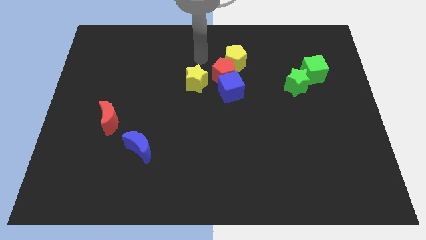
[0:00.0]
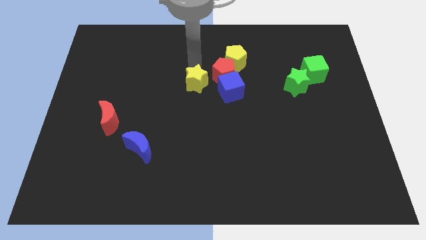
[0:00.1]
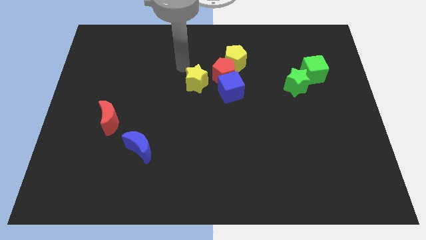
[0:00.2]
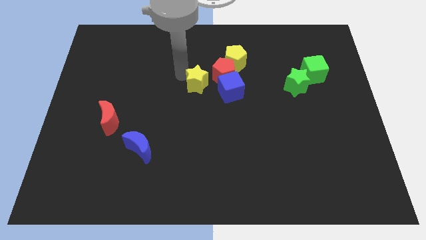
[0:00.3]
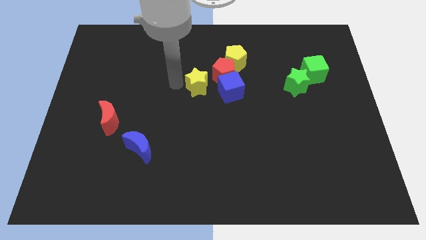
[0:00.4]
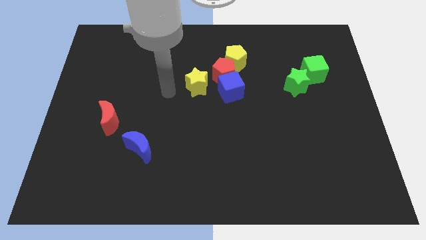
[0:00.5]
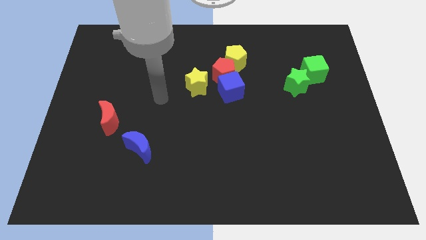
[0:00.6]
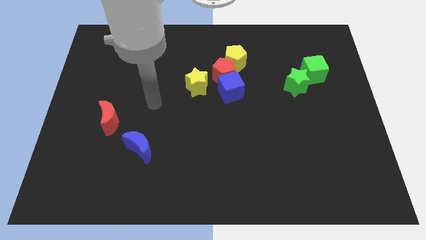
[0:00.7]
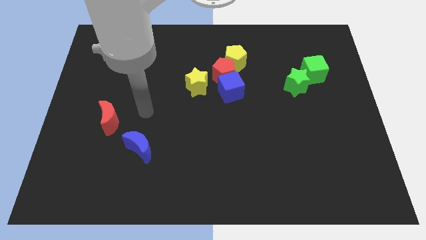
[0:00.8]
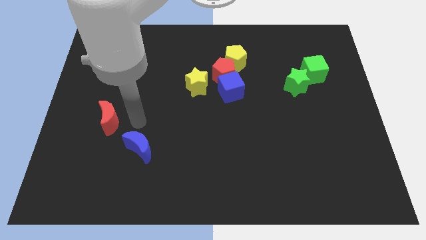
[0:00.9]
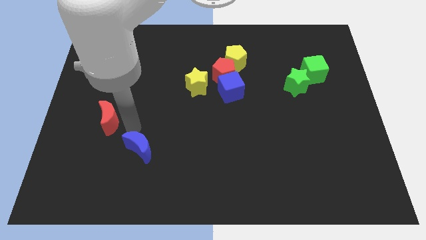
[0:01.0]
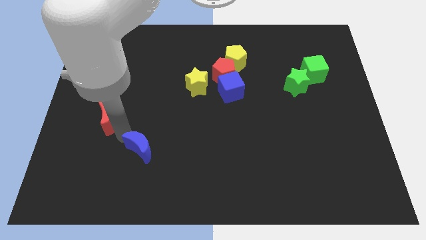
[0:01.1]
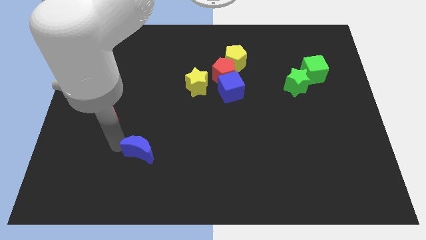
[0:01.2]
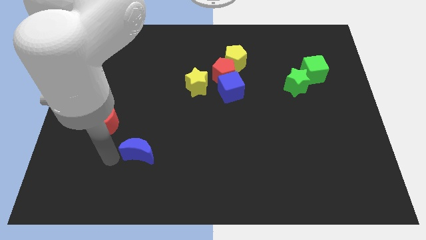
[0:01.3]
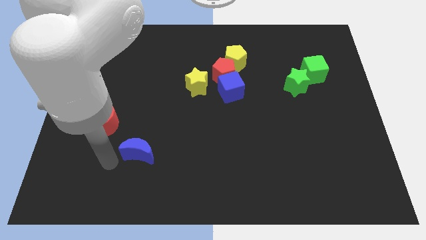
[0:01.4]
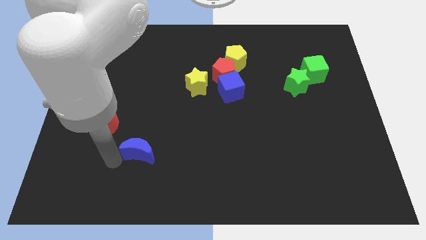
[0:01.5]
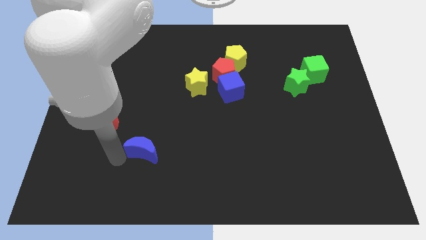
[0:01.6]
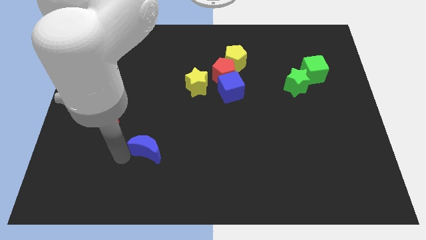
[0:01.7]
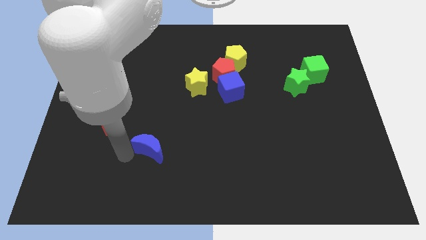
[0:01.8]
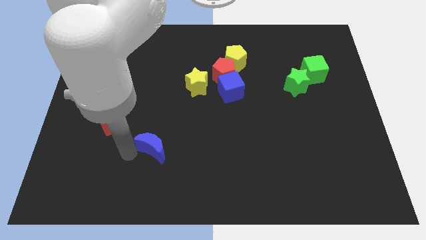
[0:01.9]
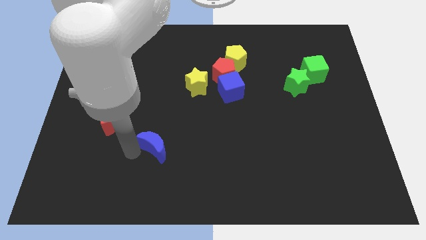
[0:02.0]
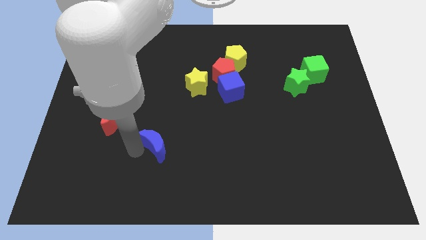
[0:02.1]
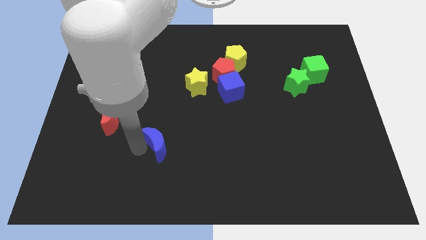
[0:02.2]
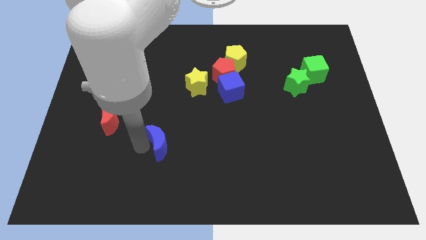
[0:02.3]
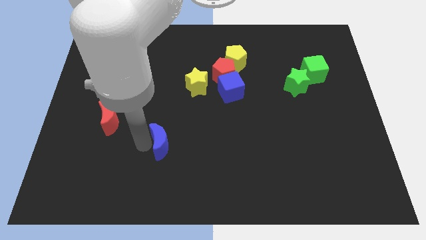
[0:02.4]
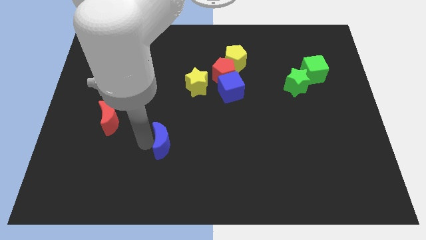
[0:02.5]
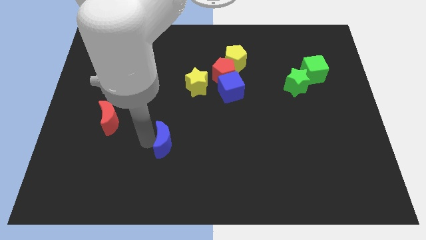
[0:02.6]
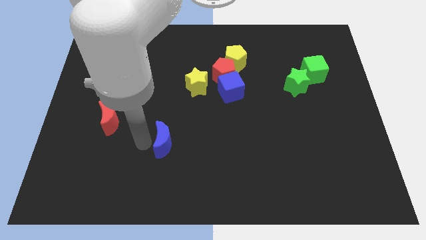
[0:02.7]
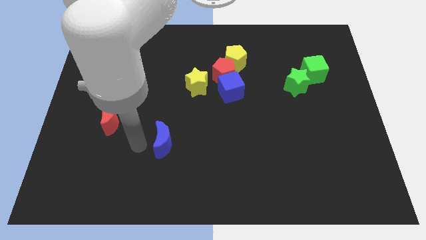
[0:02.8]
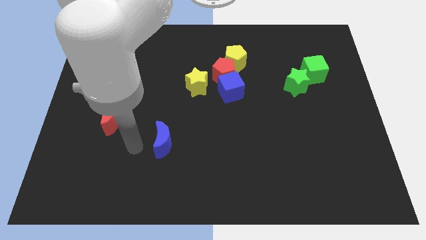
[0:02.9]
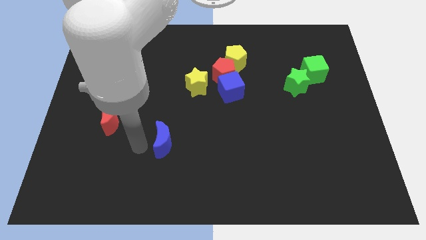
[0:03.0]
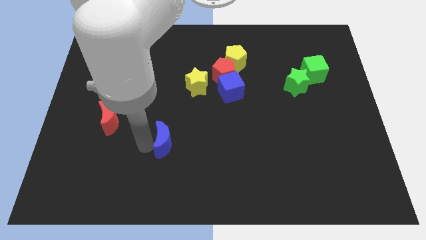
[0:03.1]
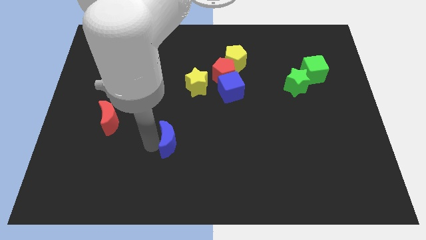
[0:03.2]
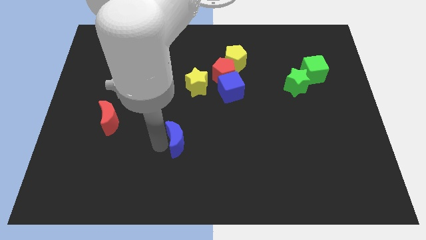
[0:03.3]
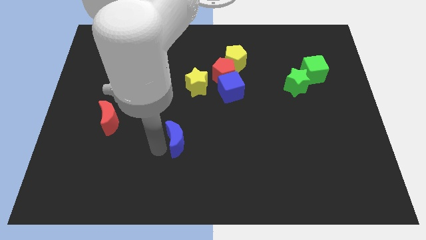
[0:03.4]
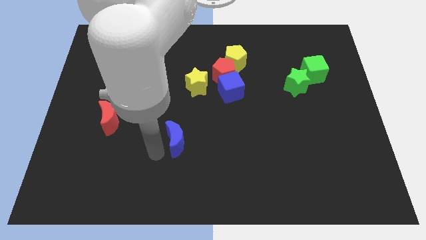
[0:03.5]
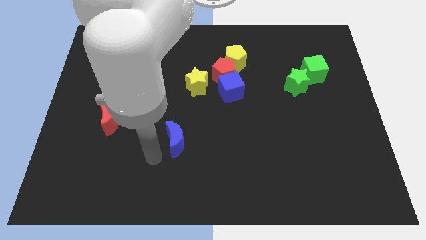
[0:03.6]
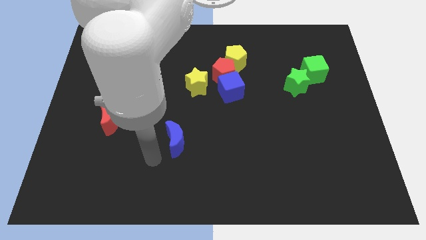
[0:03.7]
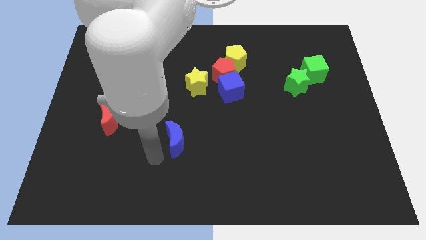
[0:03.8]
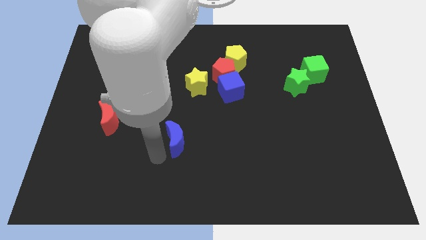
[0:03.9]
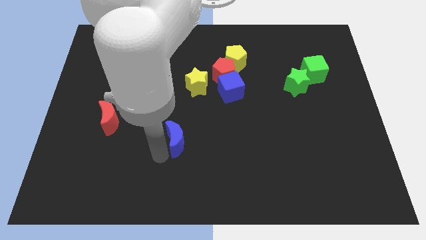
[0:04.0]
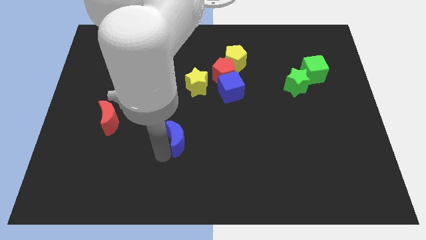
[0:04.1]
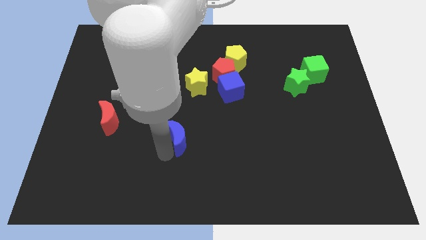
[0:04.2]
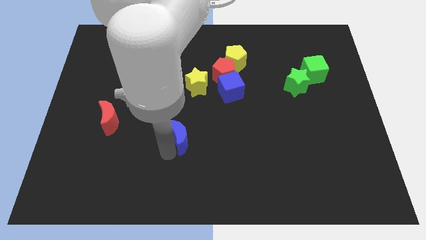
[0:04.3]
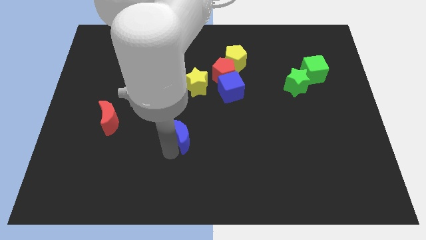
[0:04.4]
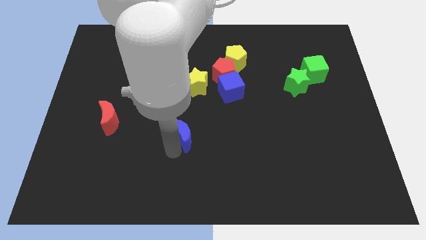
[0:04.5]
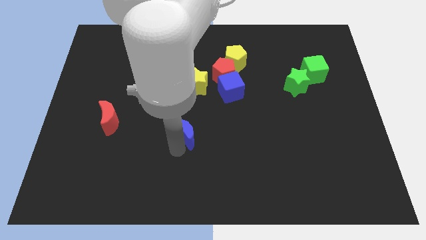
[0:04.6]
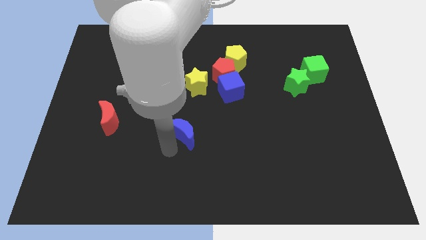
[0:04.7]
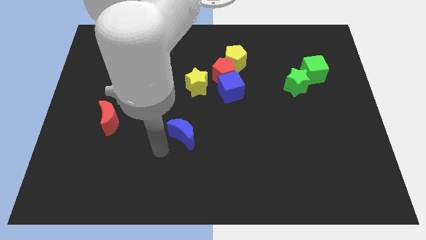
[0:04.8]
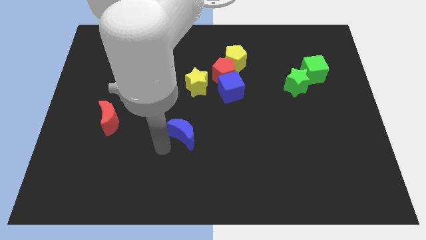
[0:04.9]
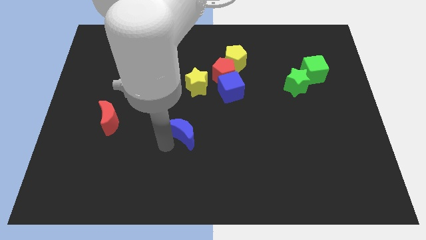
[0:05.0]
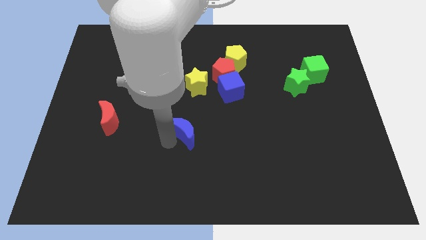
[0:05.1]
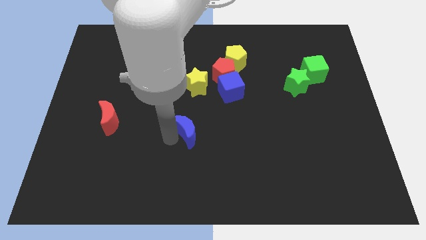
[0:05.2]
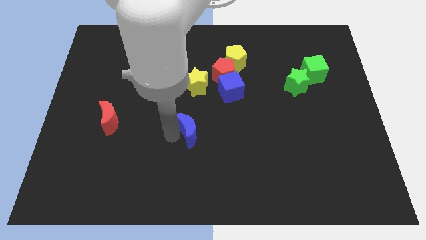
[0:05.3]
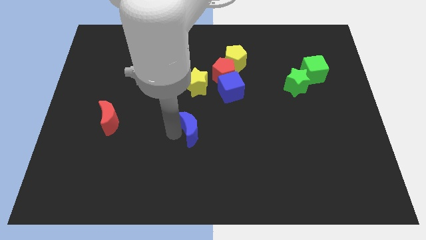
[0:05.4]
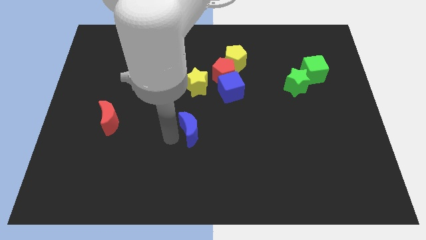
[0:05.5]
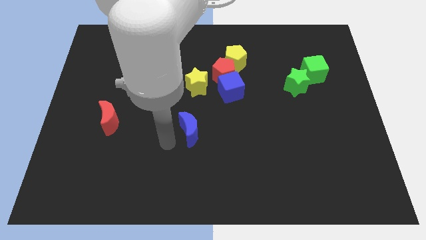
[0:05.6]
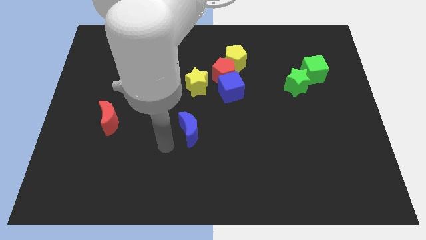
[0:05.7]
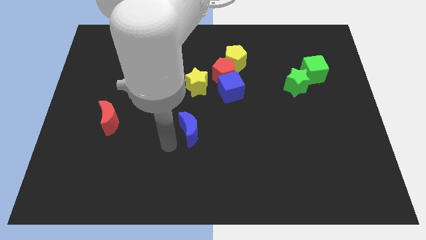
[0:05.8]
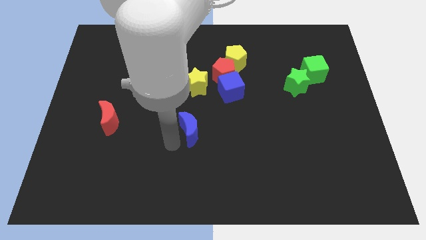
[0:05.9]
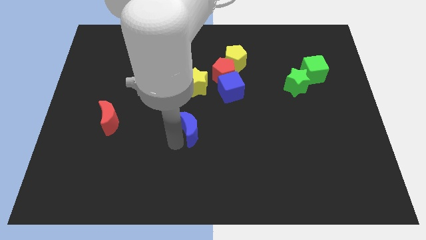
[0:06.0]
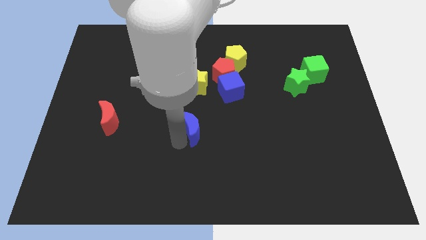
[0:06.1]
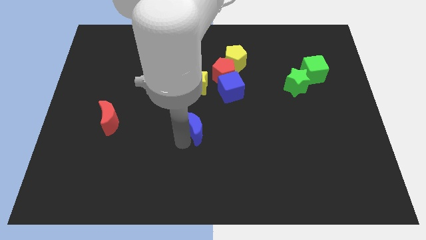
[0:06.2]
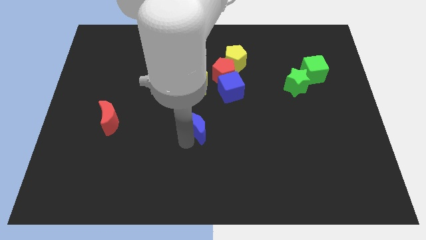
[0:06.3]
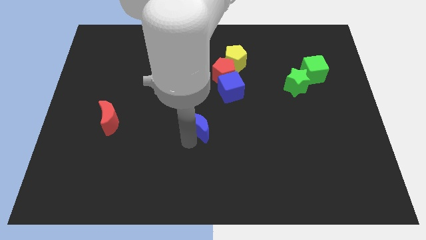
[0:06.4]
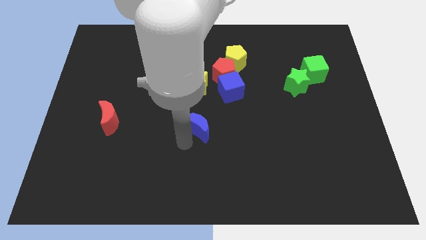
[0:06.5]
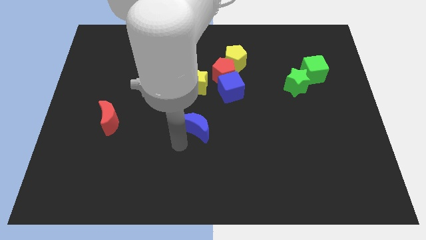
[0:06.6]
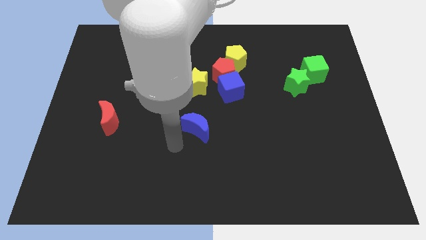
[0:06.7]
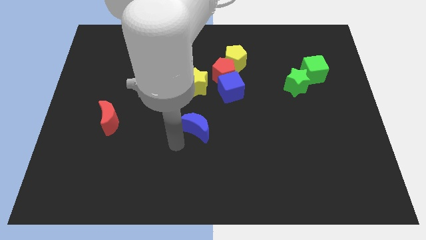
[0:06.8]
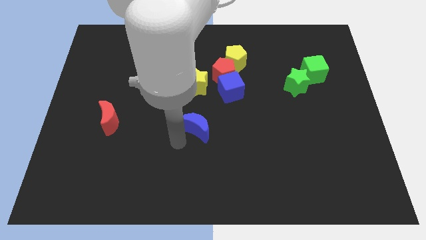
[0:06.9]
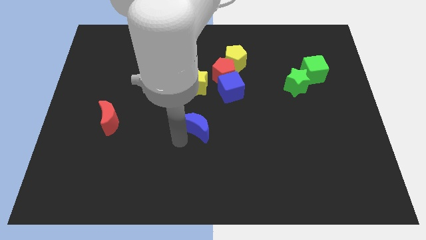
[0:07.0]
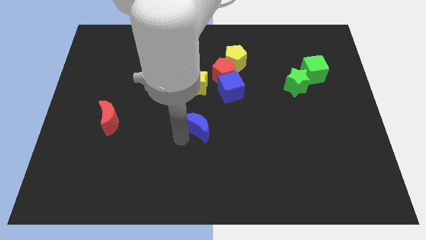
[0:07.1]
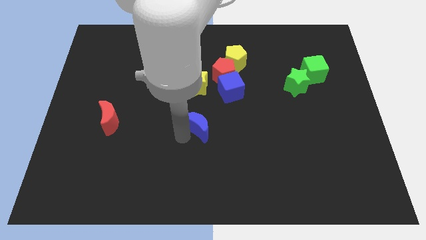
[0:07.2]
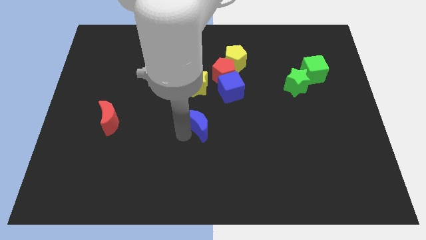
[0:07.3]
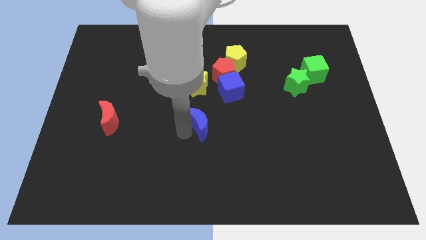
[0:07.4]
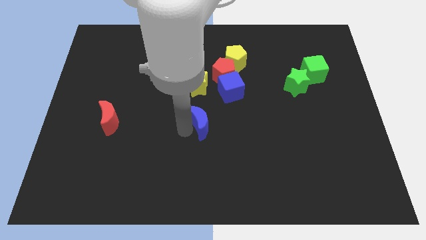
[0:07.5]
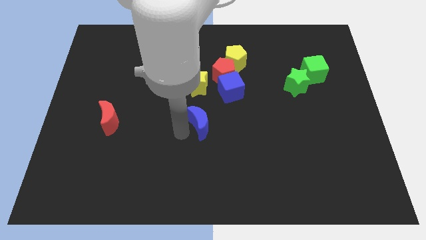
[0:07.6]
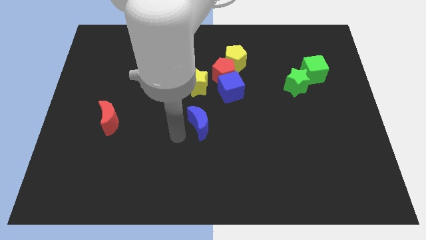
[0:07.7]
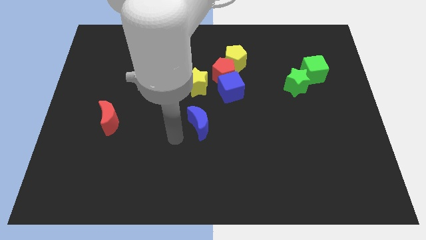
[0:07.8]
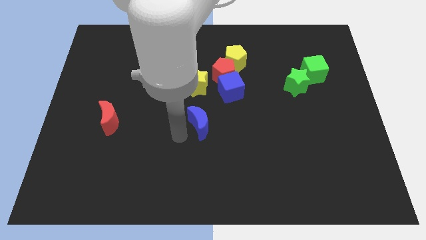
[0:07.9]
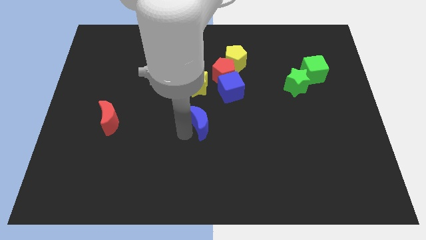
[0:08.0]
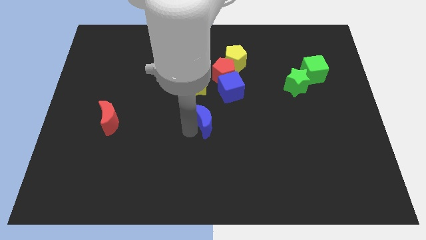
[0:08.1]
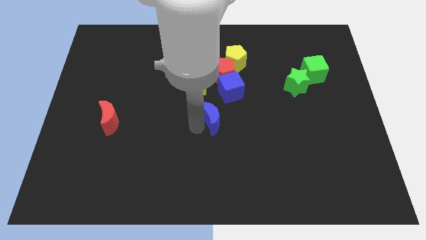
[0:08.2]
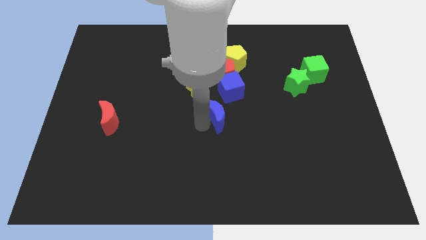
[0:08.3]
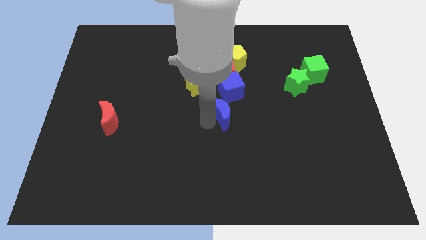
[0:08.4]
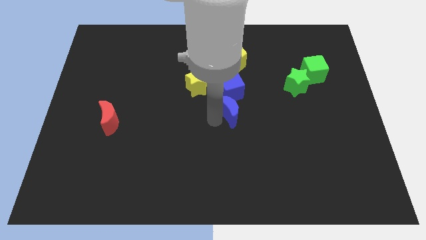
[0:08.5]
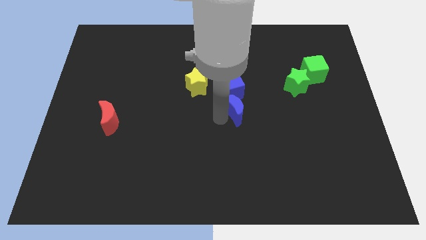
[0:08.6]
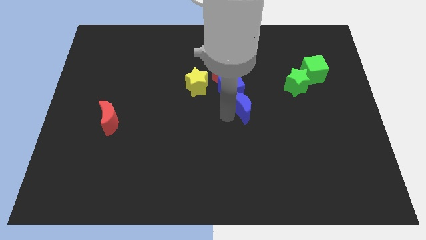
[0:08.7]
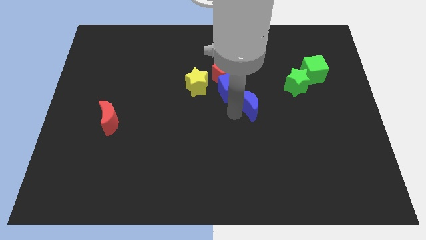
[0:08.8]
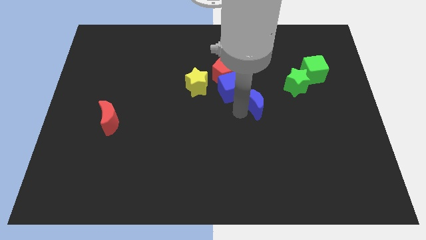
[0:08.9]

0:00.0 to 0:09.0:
put the blue moon to the right side of the blue cube
